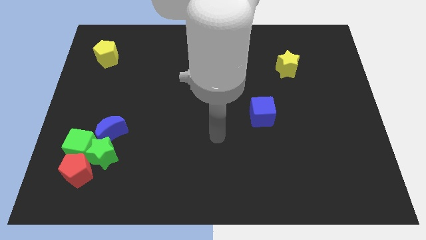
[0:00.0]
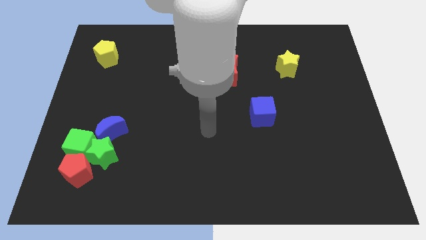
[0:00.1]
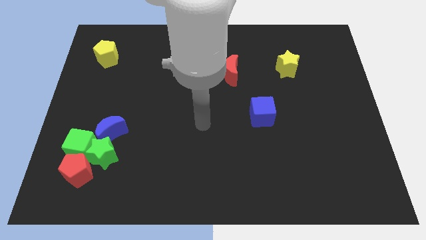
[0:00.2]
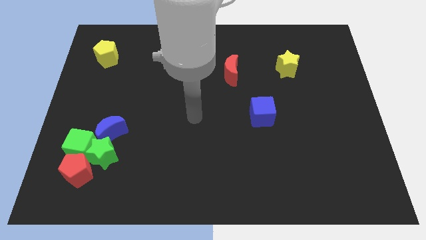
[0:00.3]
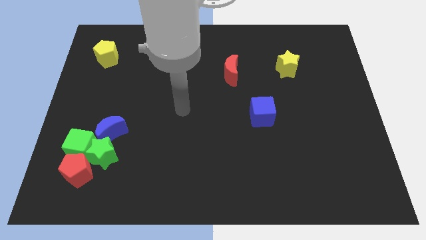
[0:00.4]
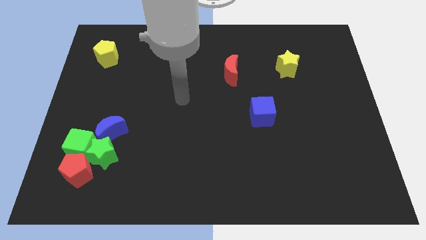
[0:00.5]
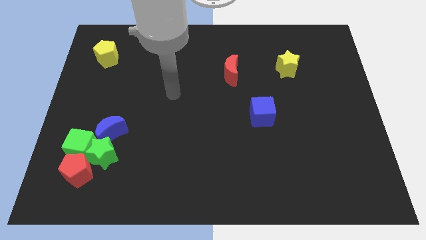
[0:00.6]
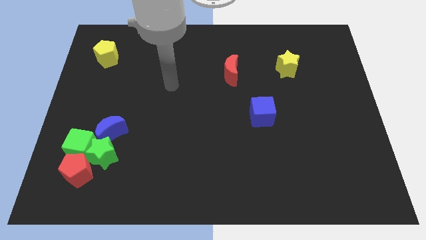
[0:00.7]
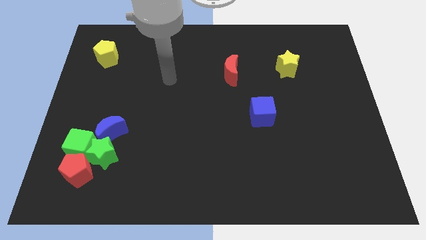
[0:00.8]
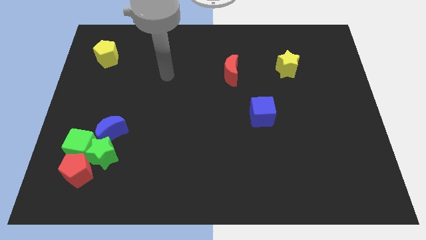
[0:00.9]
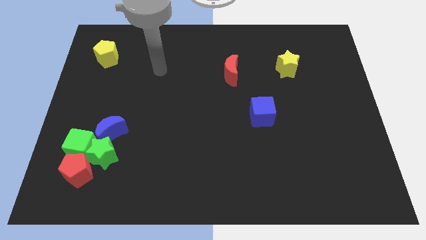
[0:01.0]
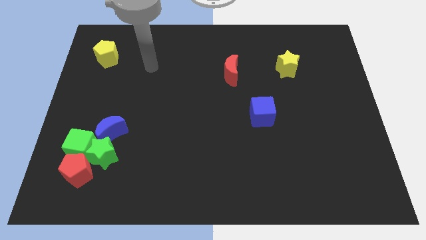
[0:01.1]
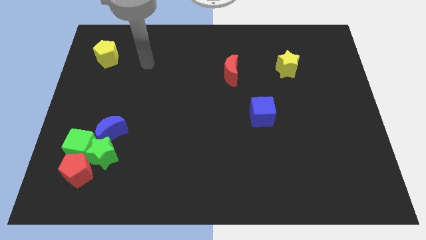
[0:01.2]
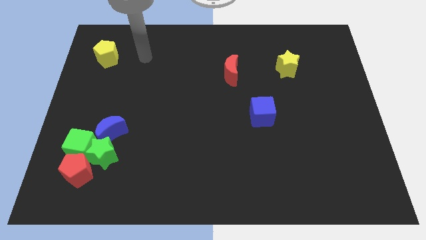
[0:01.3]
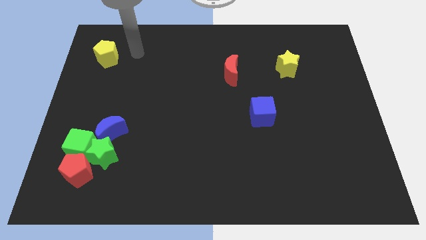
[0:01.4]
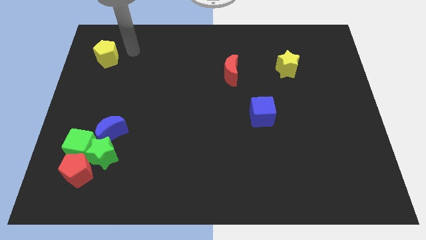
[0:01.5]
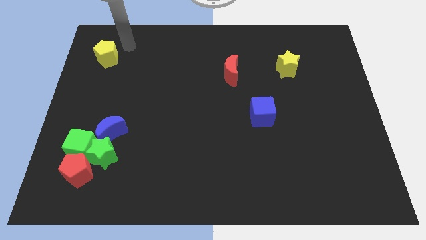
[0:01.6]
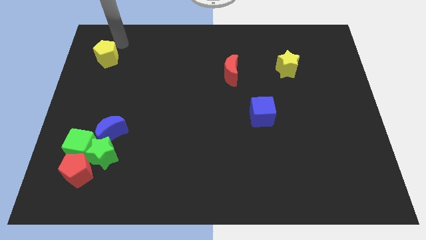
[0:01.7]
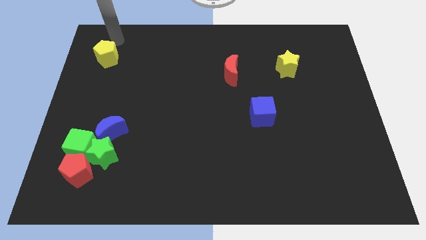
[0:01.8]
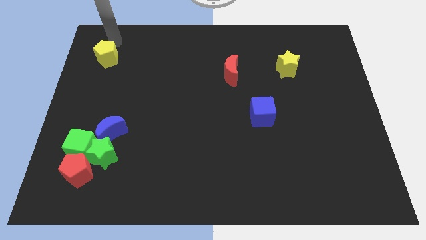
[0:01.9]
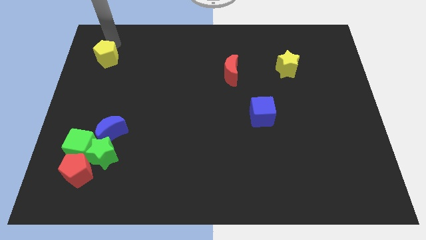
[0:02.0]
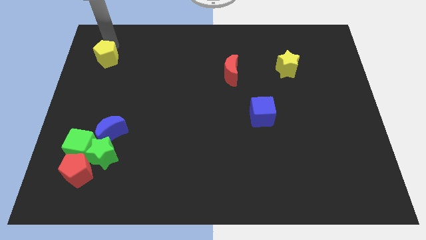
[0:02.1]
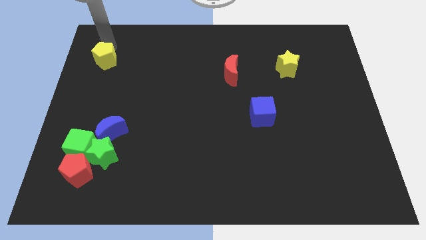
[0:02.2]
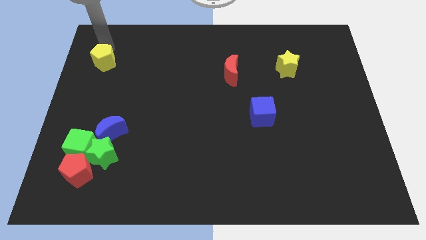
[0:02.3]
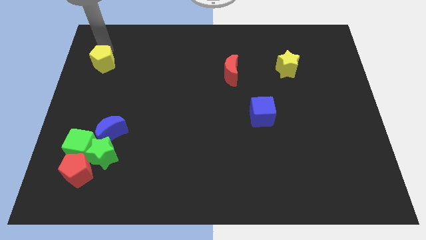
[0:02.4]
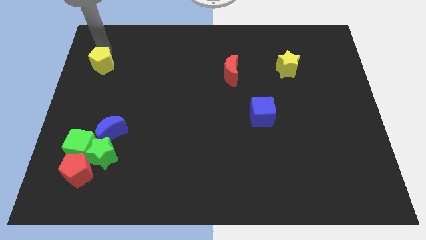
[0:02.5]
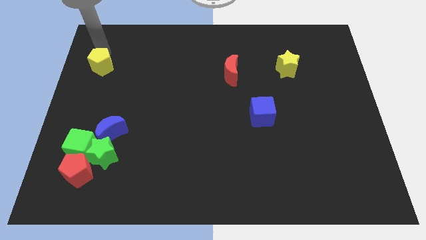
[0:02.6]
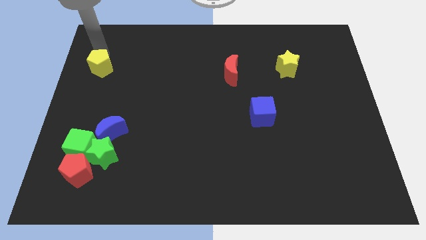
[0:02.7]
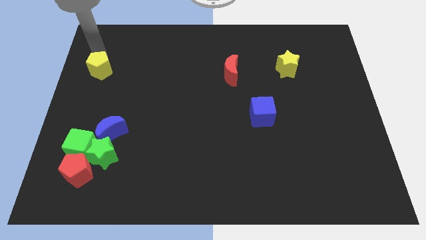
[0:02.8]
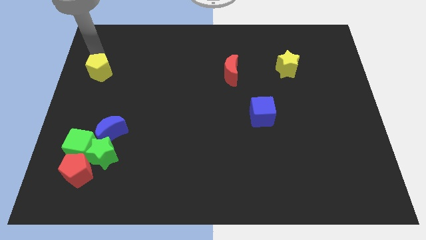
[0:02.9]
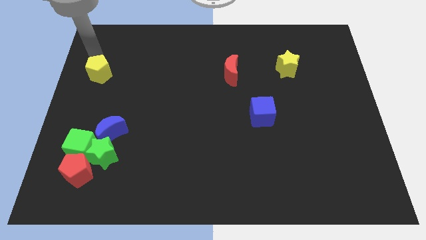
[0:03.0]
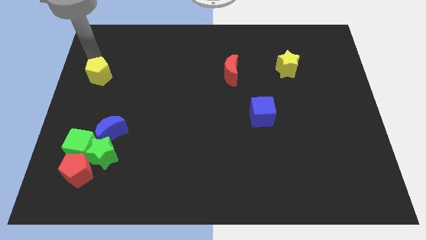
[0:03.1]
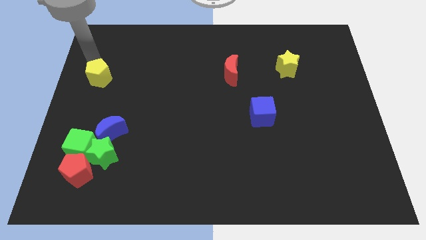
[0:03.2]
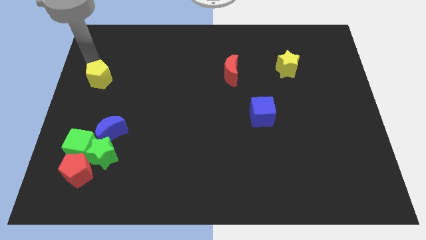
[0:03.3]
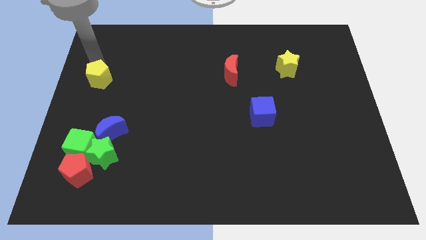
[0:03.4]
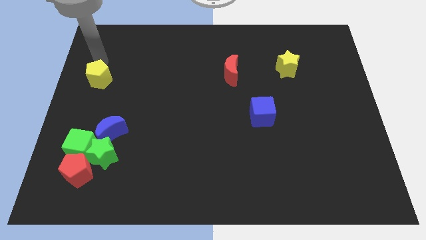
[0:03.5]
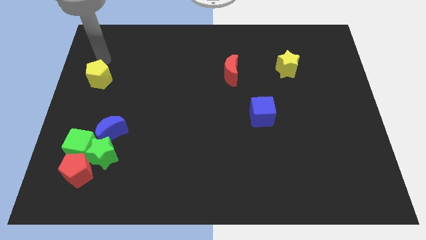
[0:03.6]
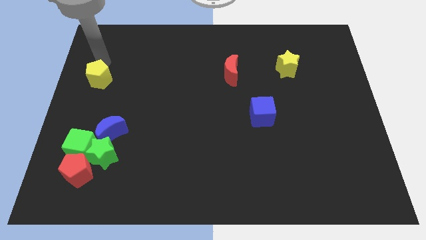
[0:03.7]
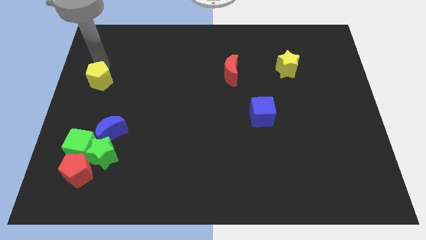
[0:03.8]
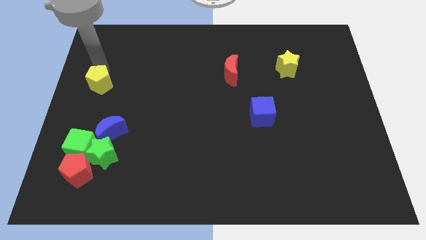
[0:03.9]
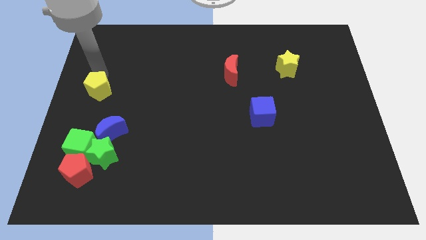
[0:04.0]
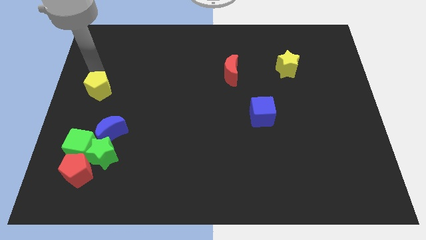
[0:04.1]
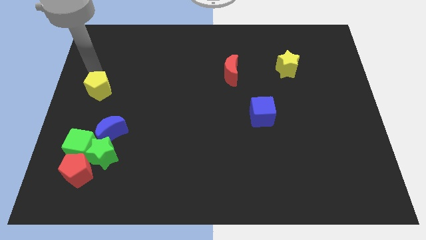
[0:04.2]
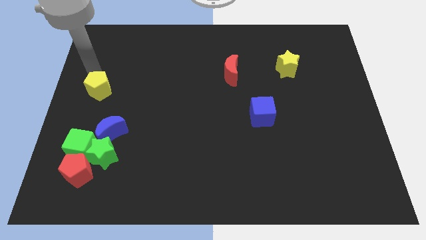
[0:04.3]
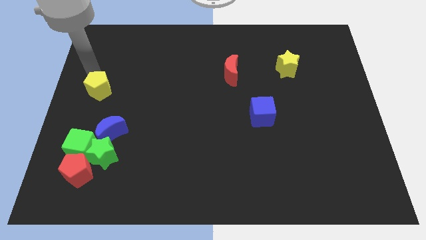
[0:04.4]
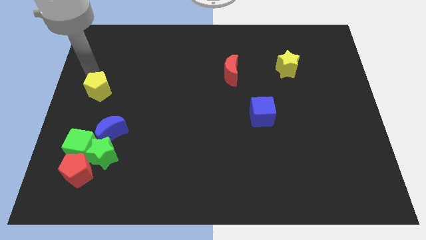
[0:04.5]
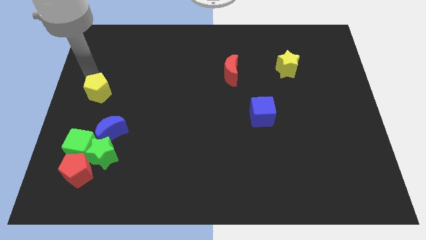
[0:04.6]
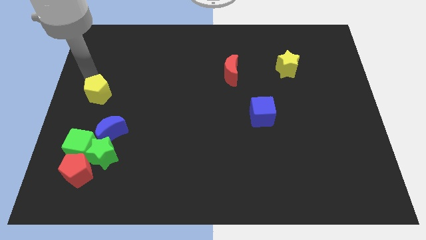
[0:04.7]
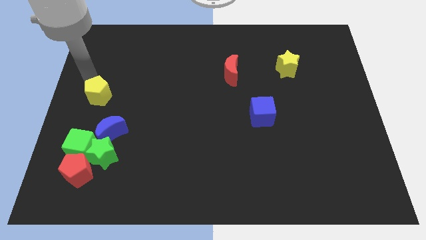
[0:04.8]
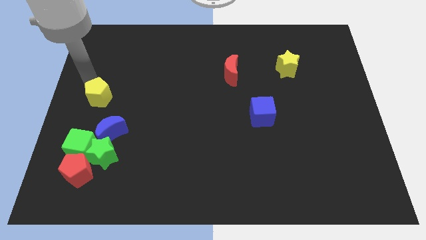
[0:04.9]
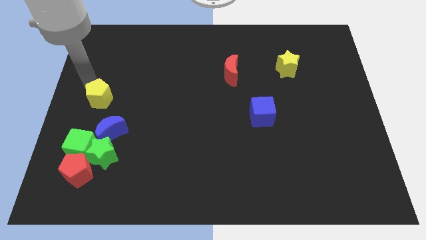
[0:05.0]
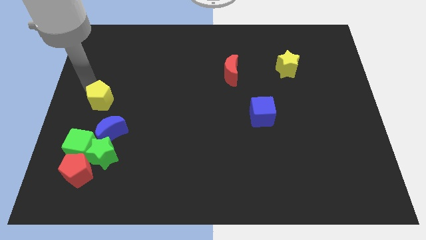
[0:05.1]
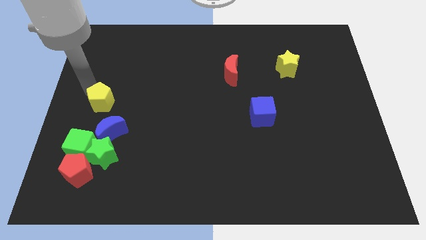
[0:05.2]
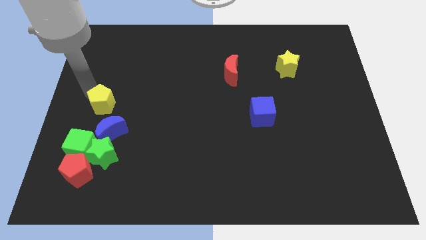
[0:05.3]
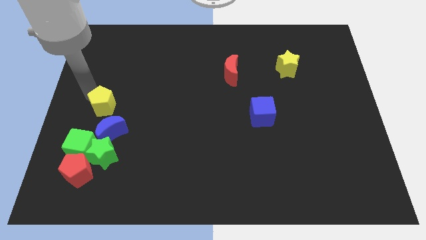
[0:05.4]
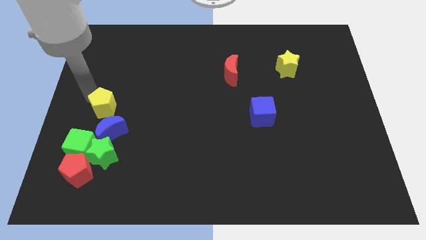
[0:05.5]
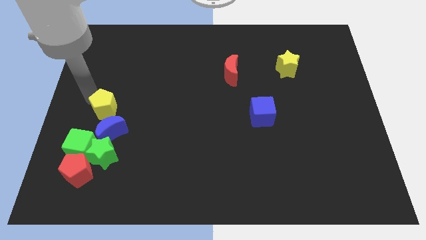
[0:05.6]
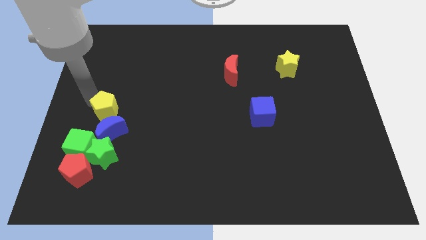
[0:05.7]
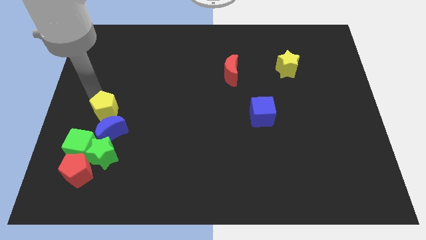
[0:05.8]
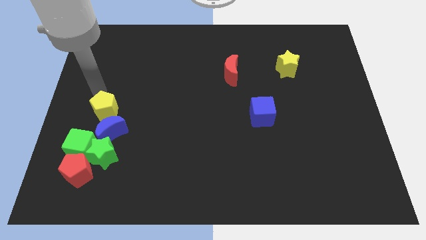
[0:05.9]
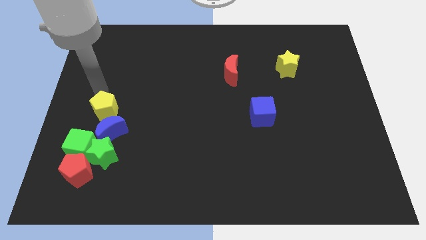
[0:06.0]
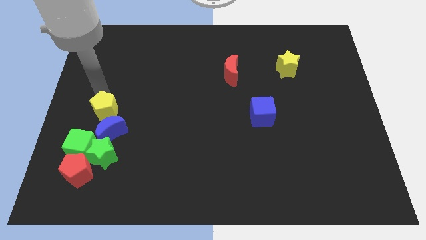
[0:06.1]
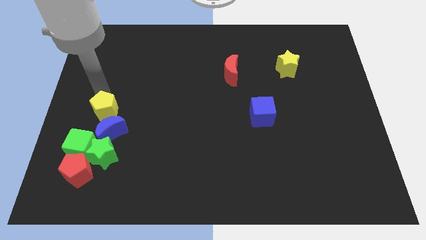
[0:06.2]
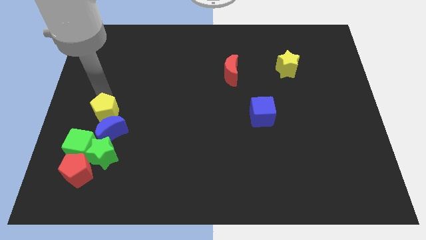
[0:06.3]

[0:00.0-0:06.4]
push the yellow pentagon towards the blue moon

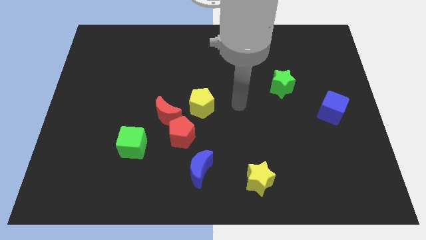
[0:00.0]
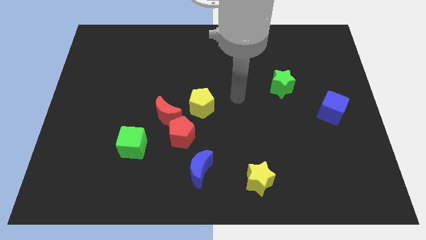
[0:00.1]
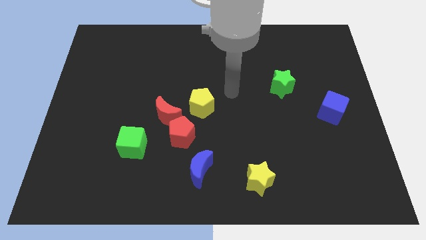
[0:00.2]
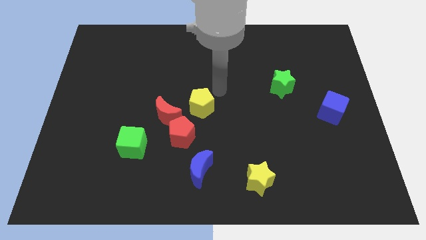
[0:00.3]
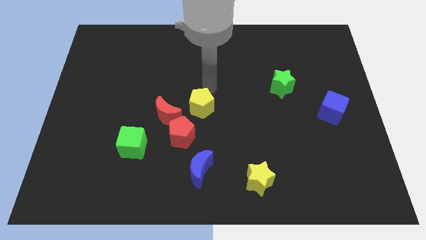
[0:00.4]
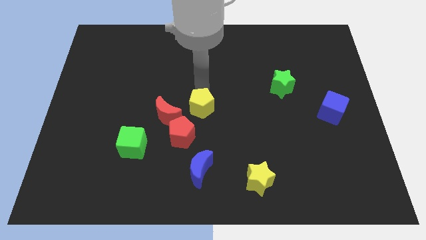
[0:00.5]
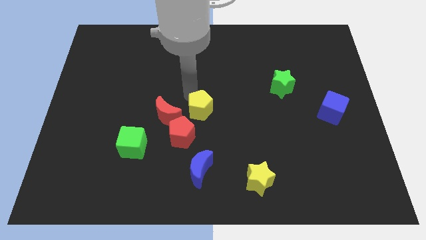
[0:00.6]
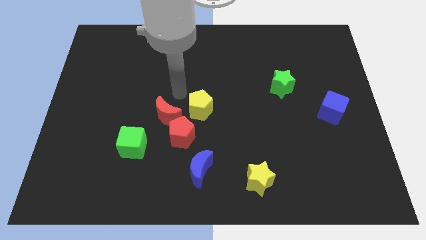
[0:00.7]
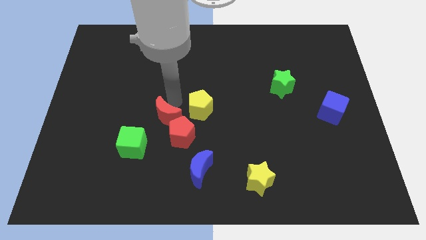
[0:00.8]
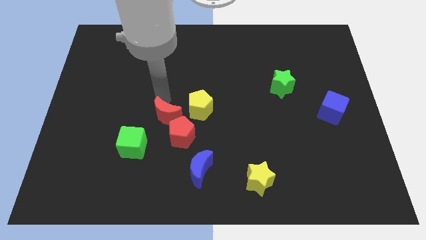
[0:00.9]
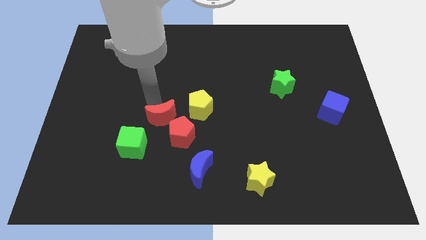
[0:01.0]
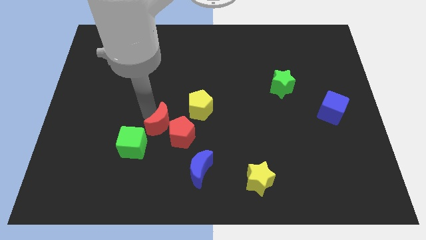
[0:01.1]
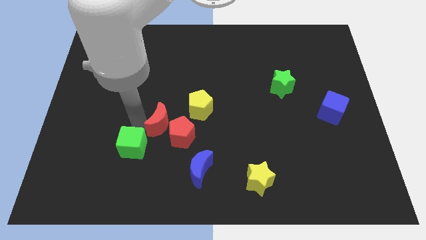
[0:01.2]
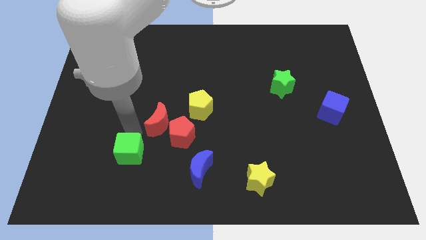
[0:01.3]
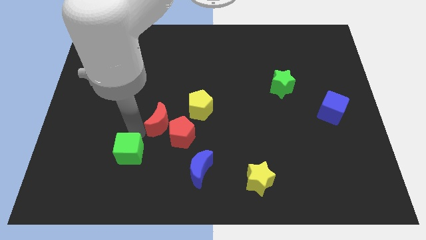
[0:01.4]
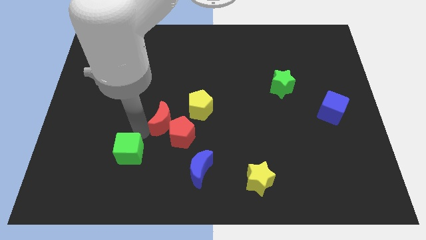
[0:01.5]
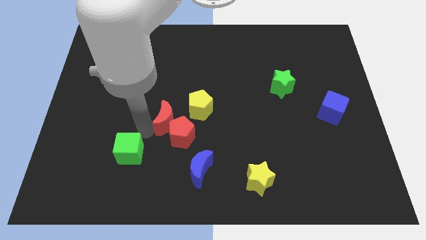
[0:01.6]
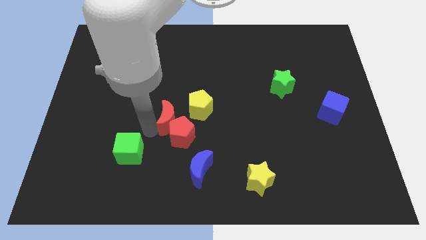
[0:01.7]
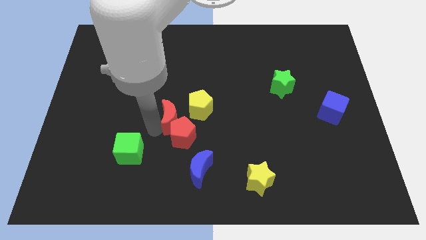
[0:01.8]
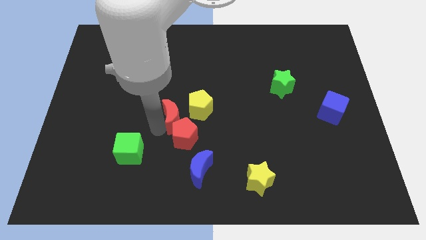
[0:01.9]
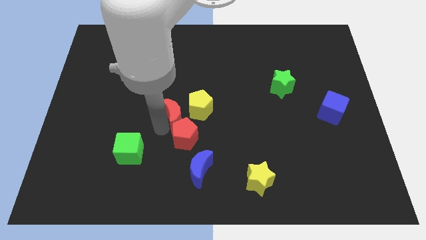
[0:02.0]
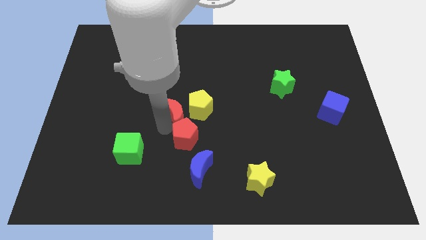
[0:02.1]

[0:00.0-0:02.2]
put the red moon close to the yellow pentagon
